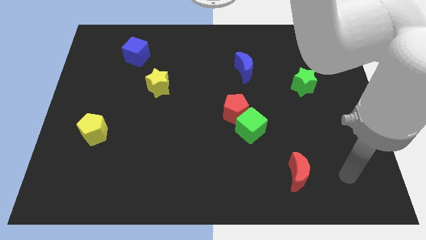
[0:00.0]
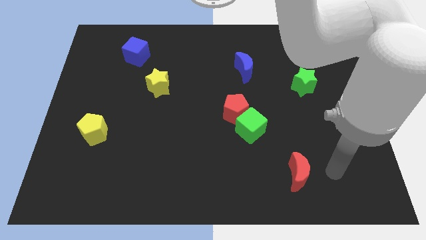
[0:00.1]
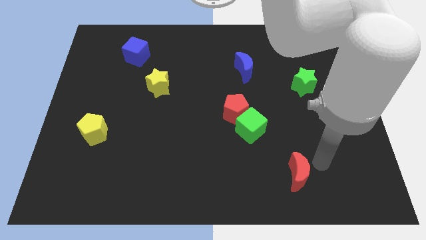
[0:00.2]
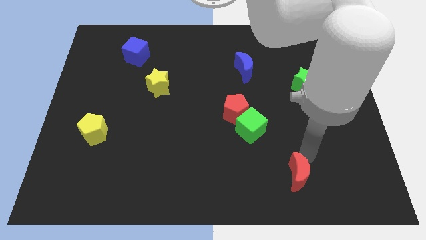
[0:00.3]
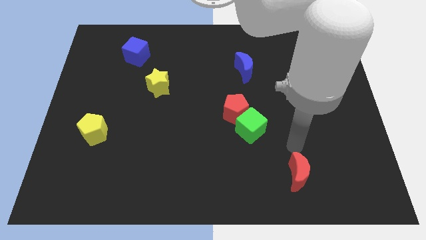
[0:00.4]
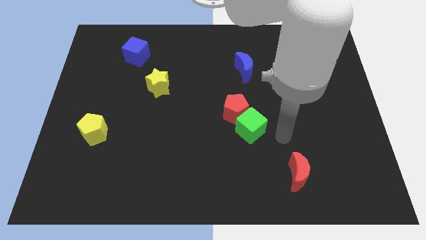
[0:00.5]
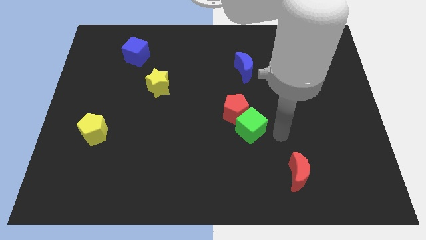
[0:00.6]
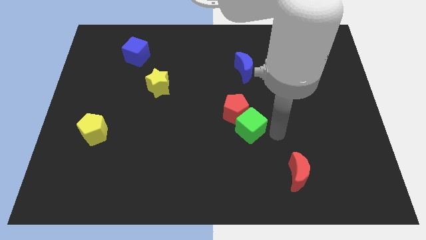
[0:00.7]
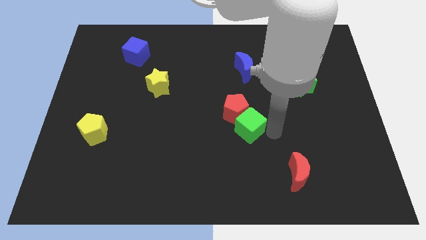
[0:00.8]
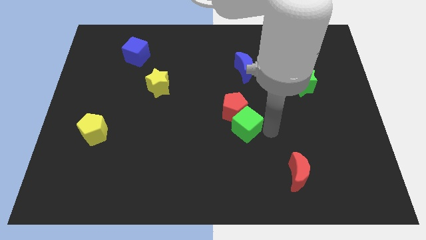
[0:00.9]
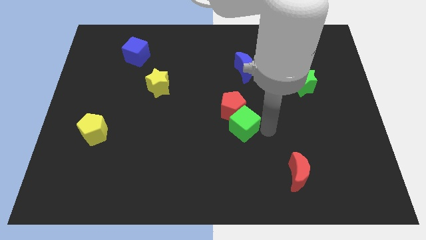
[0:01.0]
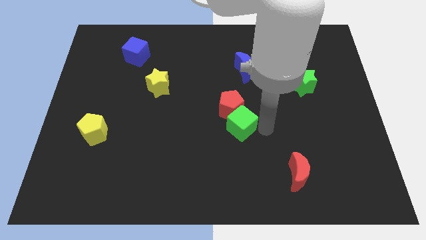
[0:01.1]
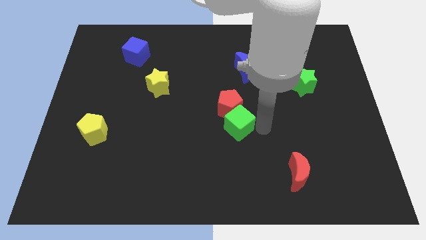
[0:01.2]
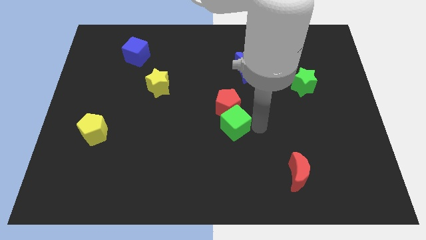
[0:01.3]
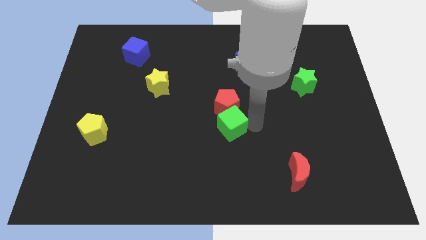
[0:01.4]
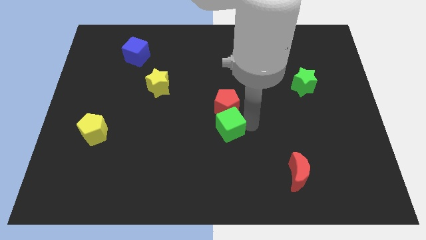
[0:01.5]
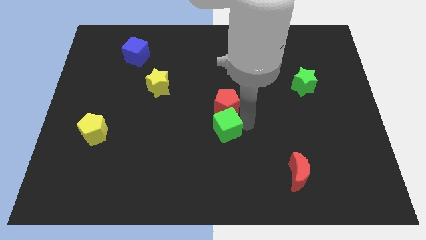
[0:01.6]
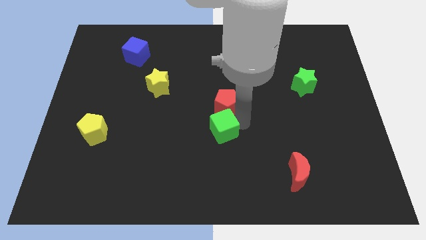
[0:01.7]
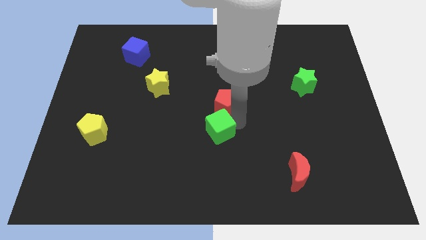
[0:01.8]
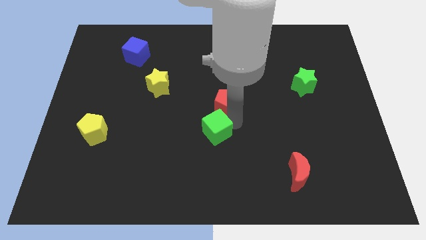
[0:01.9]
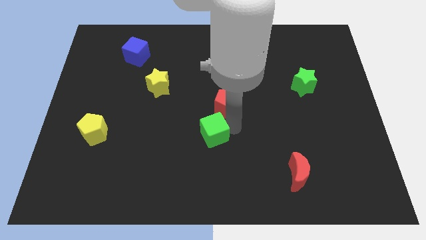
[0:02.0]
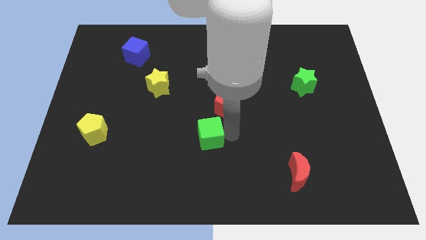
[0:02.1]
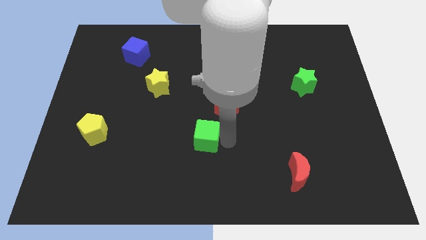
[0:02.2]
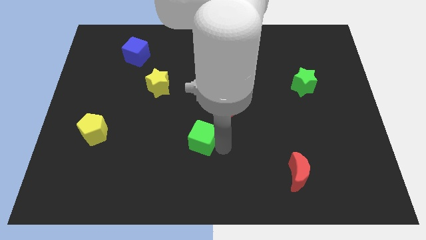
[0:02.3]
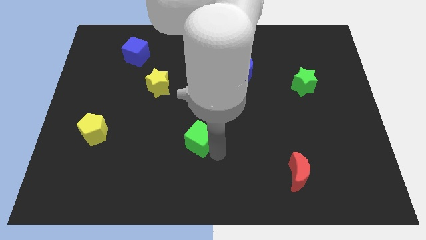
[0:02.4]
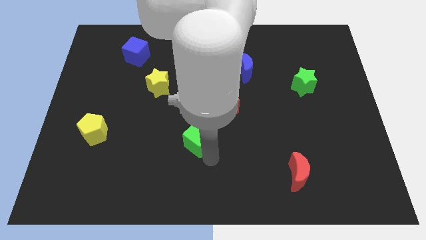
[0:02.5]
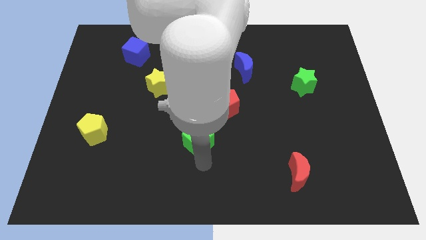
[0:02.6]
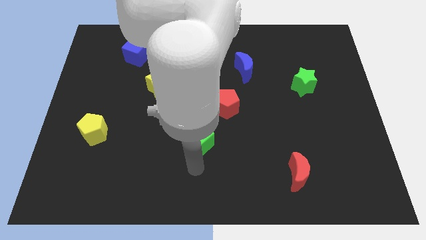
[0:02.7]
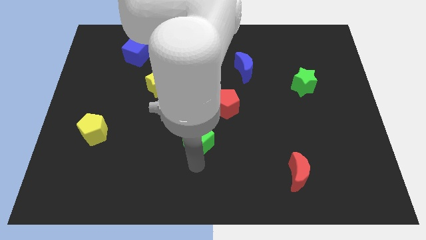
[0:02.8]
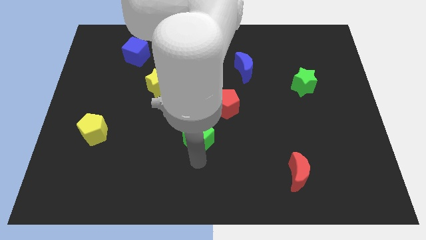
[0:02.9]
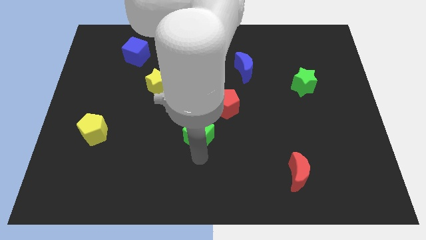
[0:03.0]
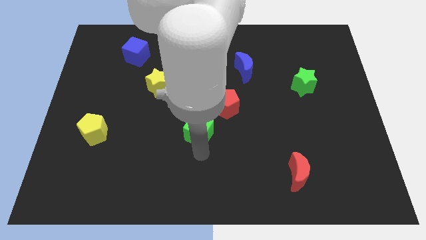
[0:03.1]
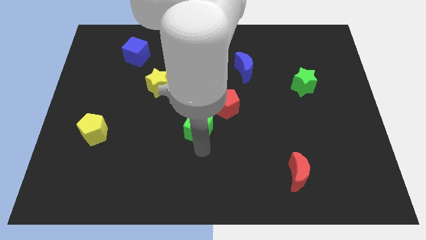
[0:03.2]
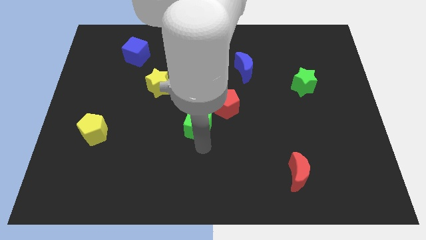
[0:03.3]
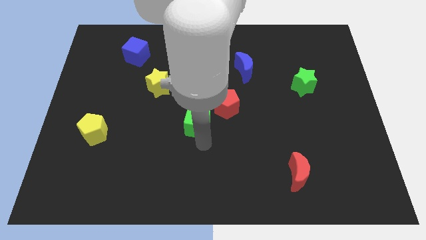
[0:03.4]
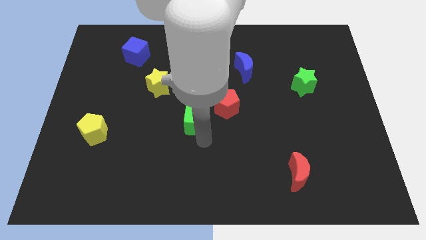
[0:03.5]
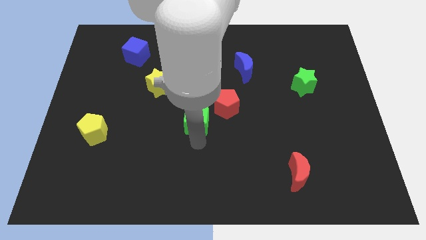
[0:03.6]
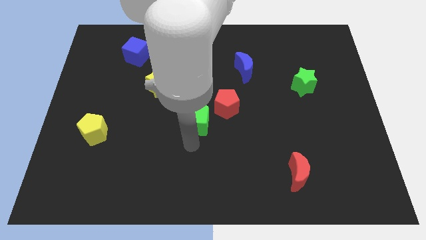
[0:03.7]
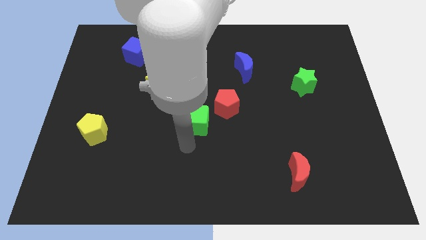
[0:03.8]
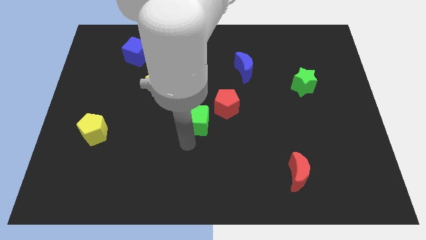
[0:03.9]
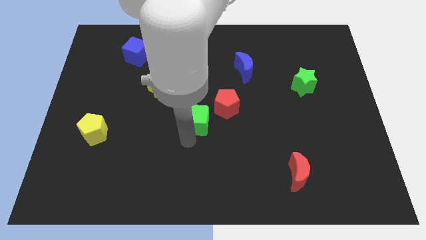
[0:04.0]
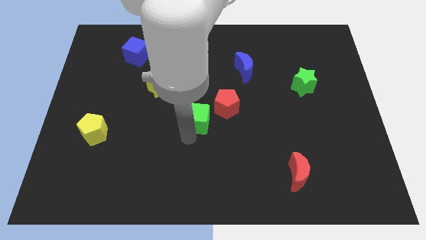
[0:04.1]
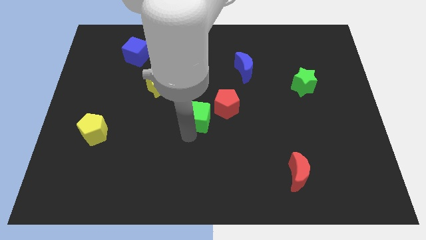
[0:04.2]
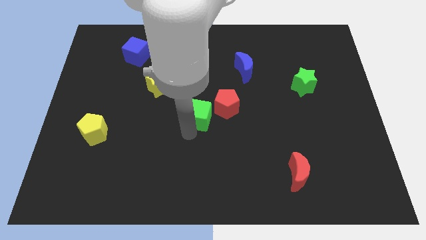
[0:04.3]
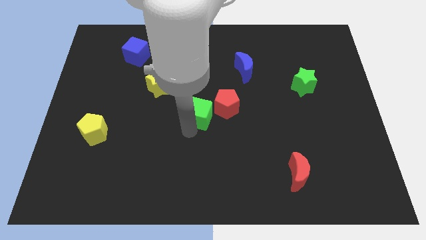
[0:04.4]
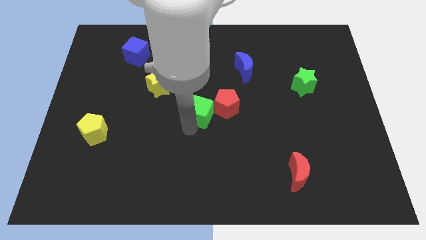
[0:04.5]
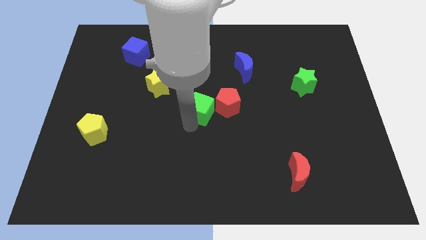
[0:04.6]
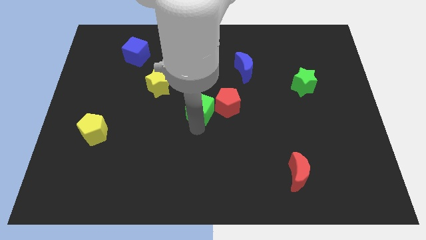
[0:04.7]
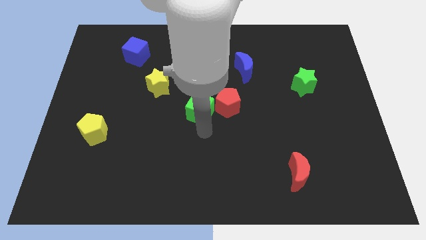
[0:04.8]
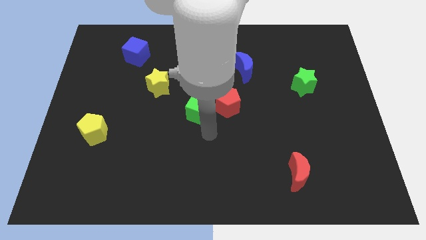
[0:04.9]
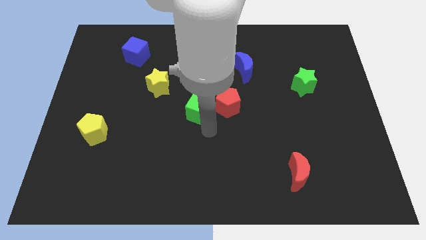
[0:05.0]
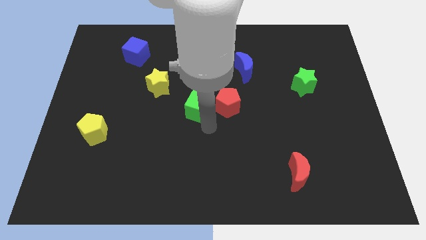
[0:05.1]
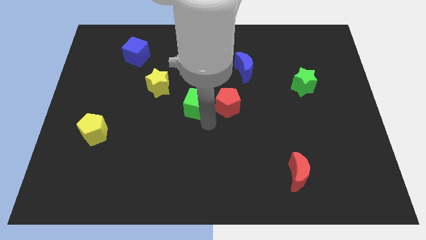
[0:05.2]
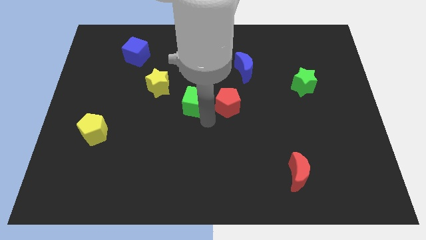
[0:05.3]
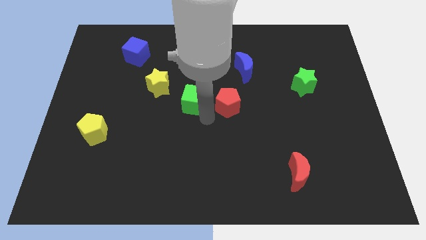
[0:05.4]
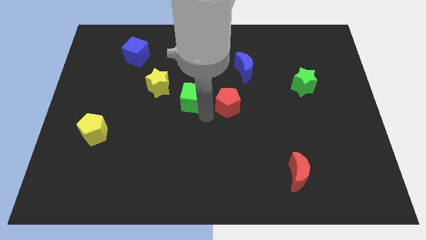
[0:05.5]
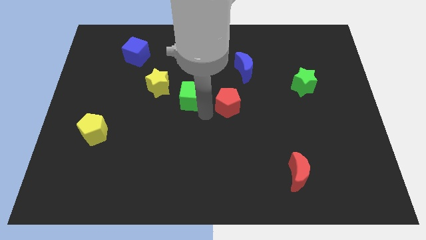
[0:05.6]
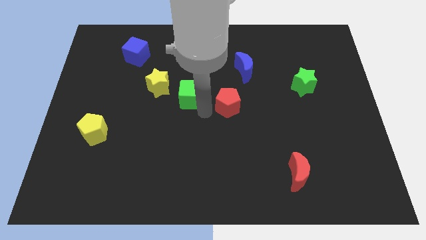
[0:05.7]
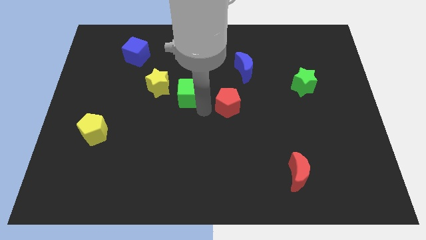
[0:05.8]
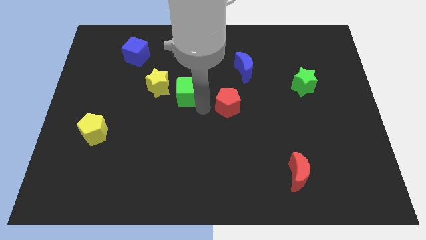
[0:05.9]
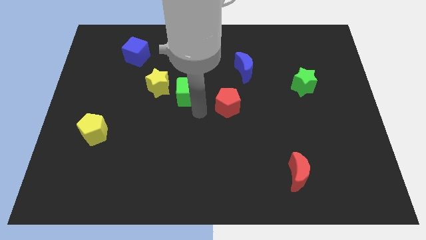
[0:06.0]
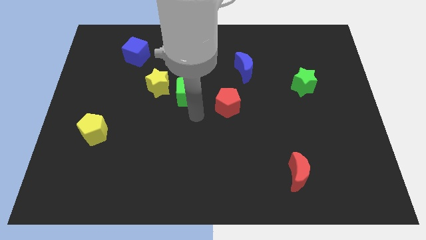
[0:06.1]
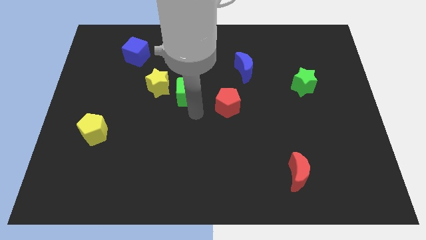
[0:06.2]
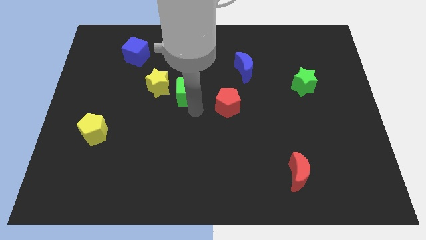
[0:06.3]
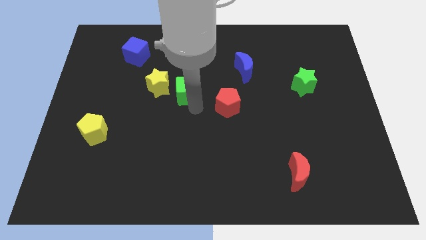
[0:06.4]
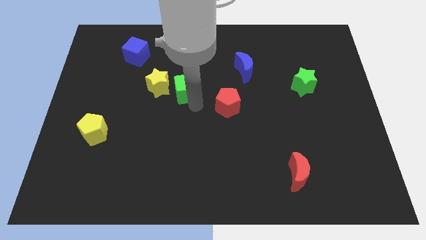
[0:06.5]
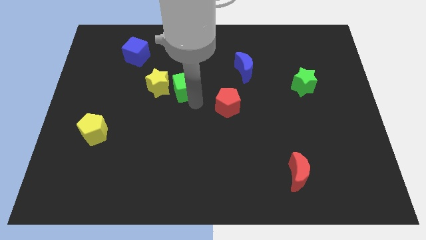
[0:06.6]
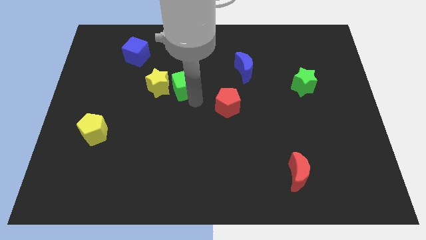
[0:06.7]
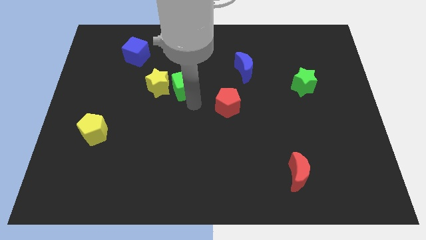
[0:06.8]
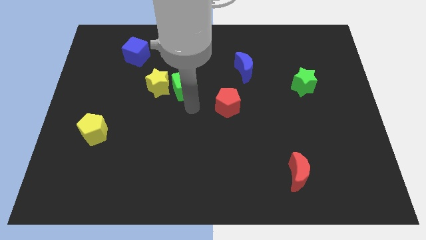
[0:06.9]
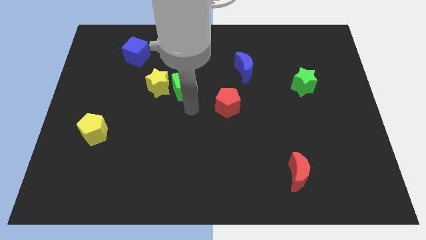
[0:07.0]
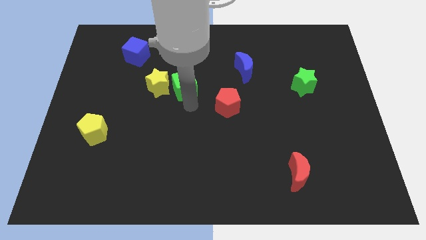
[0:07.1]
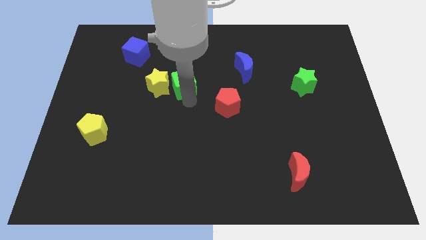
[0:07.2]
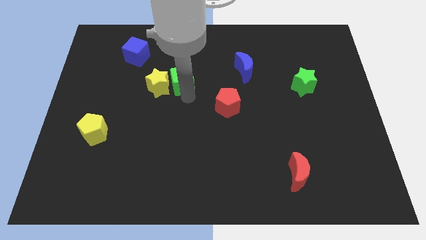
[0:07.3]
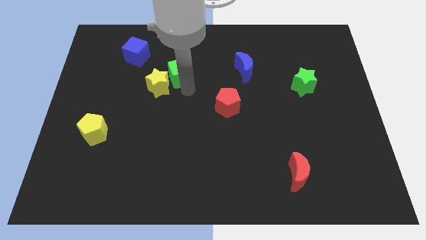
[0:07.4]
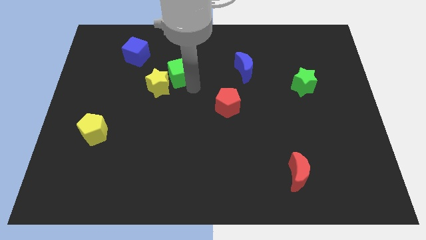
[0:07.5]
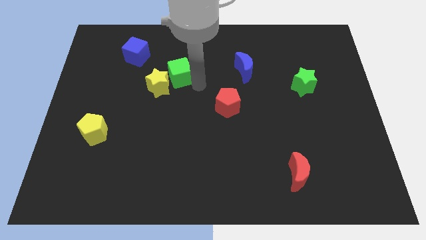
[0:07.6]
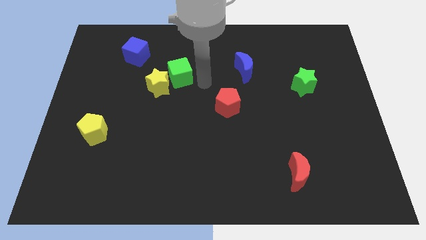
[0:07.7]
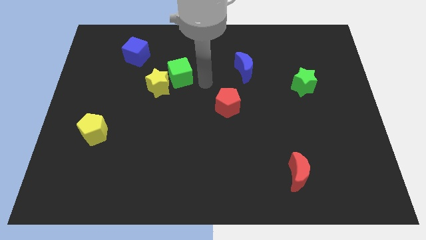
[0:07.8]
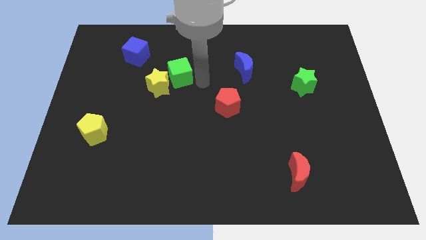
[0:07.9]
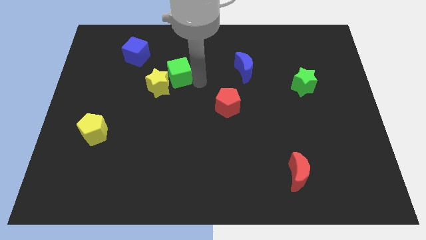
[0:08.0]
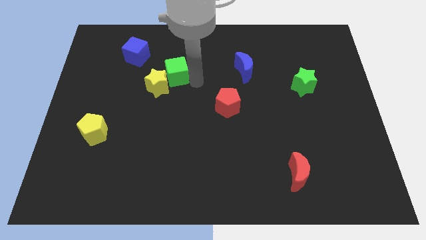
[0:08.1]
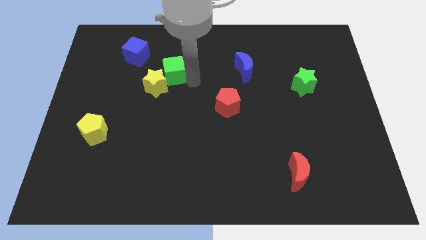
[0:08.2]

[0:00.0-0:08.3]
slide the green cube diagonally down and to the right of the blue cube
